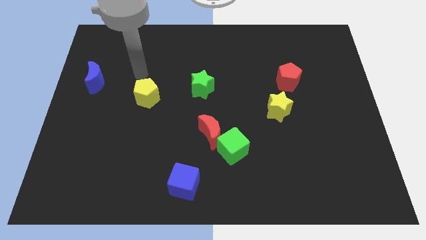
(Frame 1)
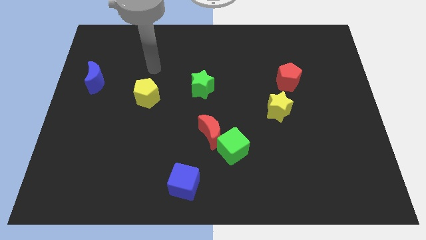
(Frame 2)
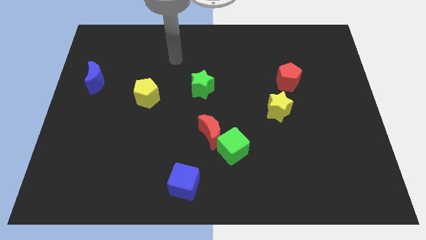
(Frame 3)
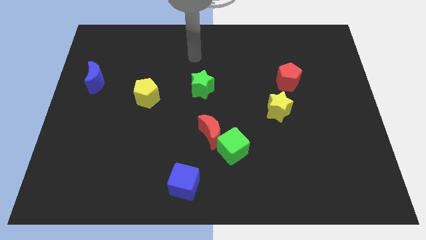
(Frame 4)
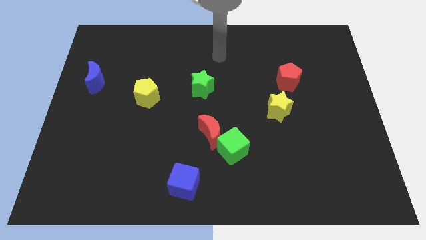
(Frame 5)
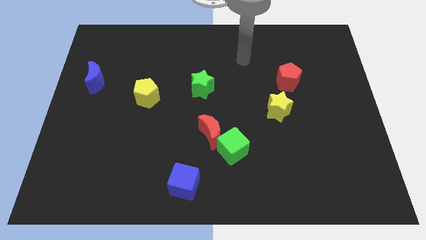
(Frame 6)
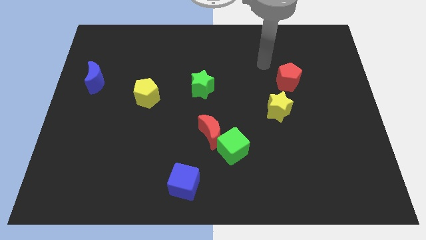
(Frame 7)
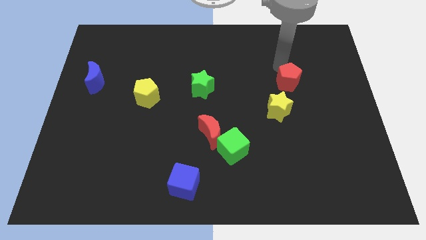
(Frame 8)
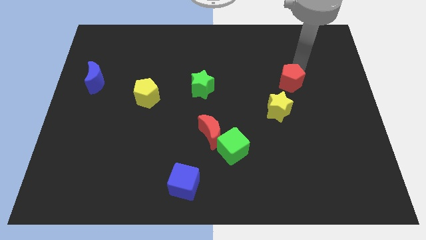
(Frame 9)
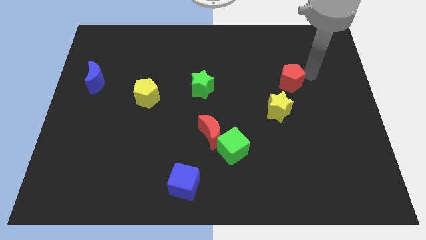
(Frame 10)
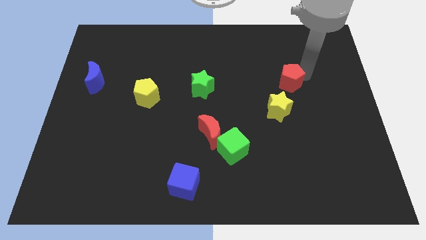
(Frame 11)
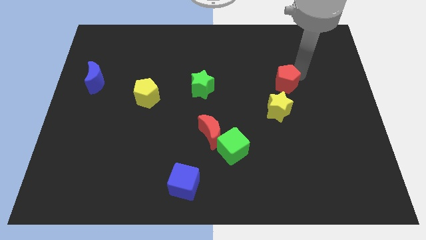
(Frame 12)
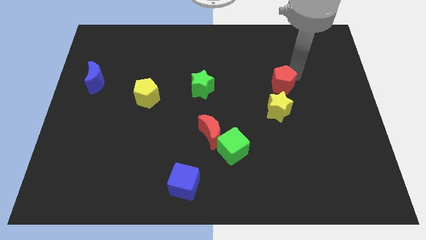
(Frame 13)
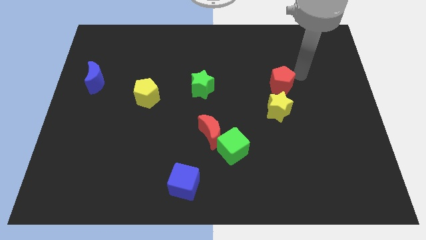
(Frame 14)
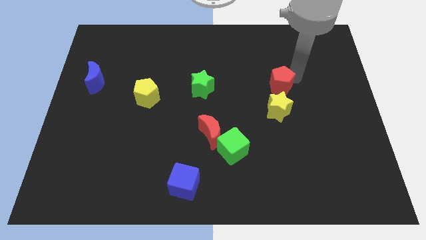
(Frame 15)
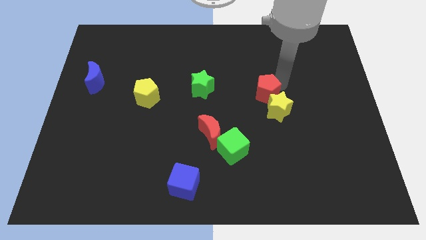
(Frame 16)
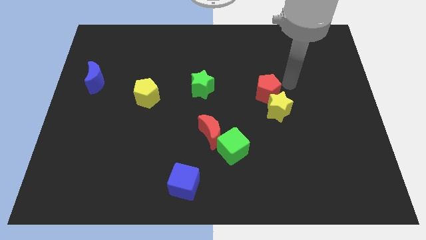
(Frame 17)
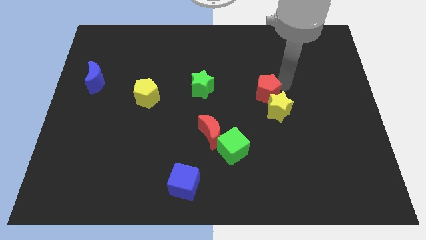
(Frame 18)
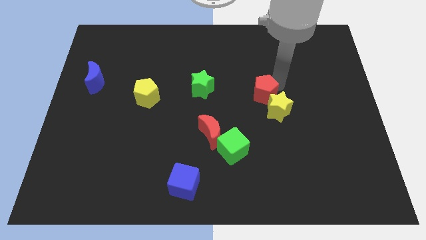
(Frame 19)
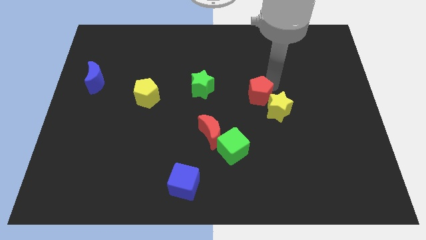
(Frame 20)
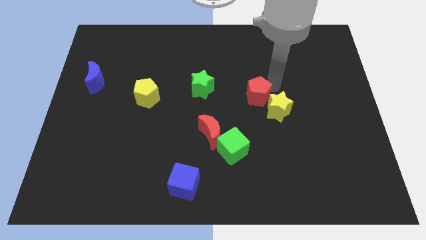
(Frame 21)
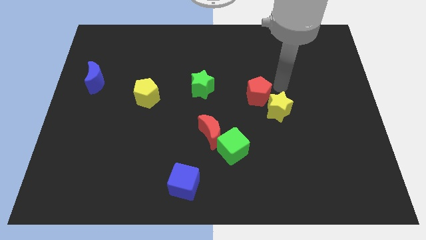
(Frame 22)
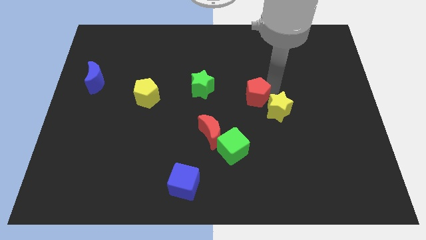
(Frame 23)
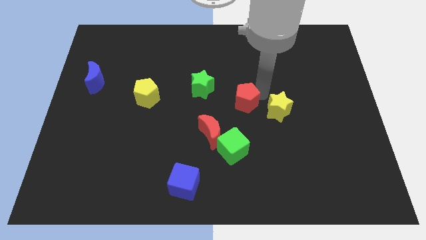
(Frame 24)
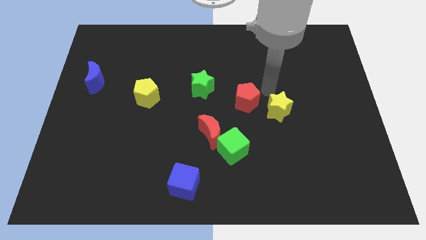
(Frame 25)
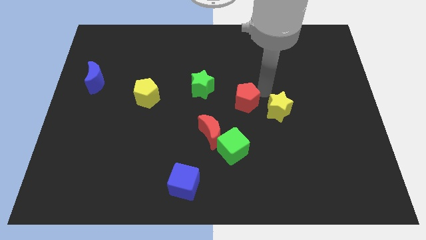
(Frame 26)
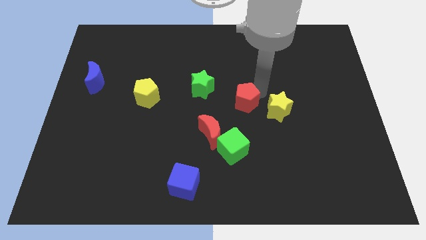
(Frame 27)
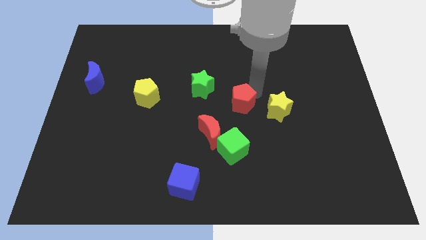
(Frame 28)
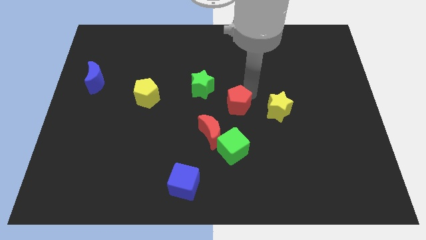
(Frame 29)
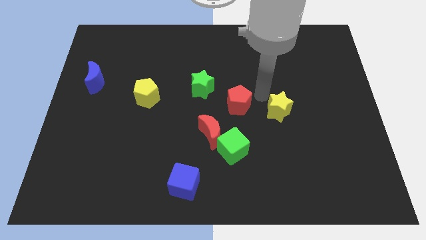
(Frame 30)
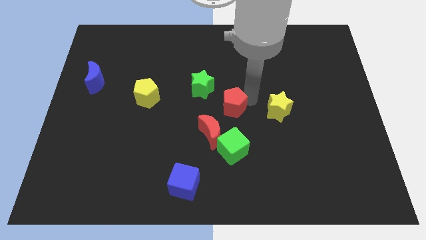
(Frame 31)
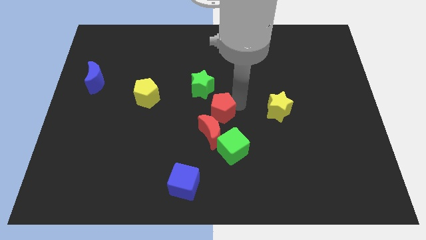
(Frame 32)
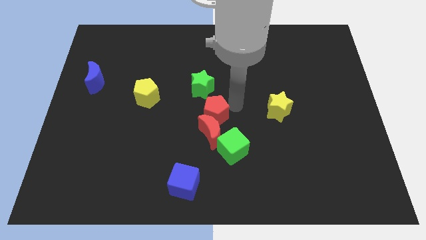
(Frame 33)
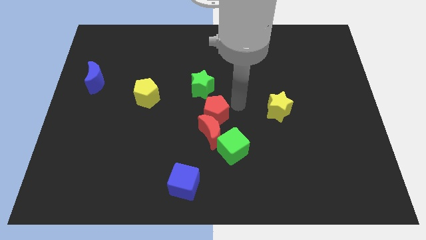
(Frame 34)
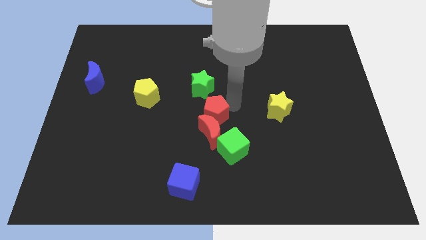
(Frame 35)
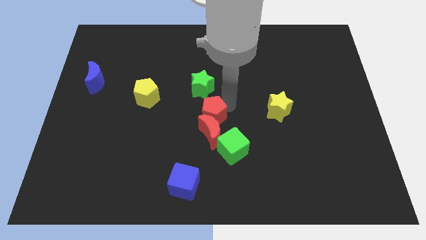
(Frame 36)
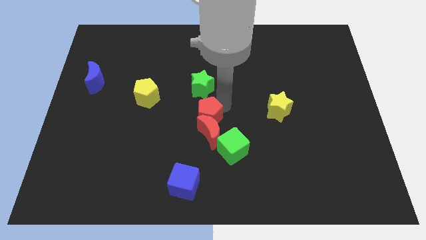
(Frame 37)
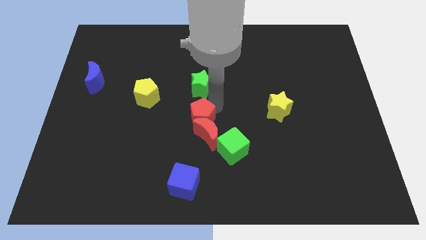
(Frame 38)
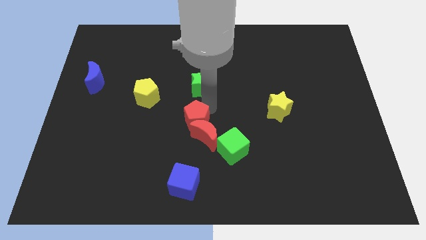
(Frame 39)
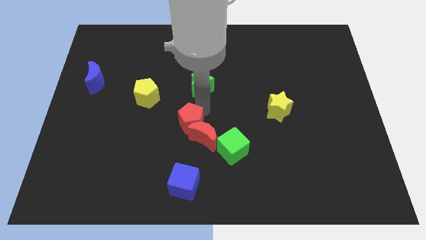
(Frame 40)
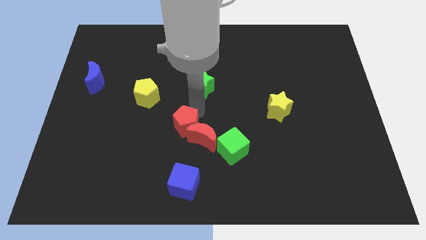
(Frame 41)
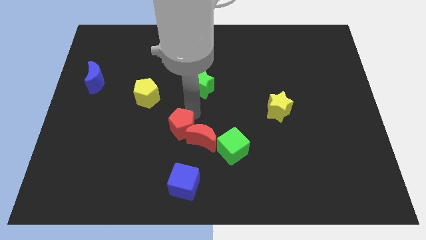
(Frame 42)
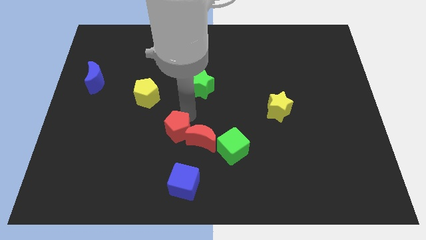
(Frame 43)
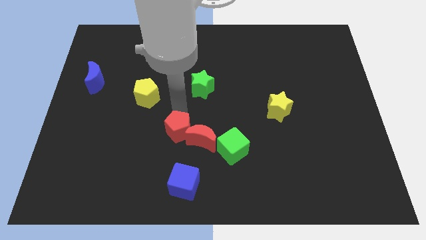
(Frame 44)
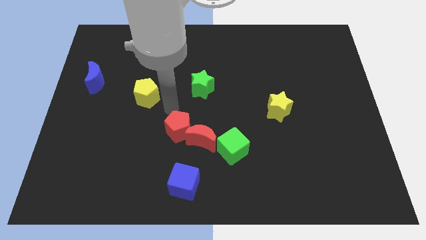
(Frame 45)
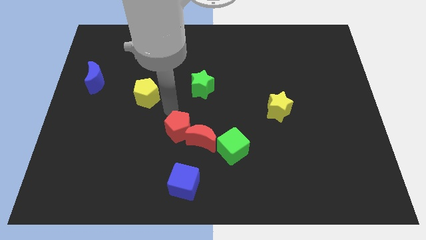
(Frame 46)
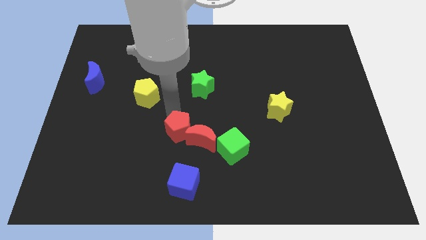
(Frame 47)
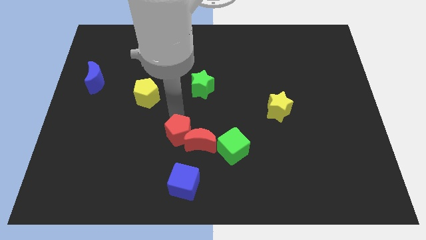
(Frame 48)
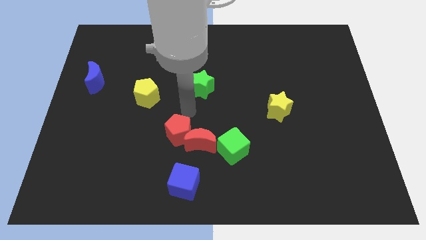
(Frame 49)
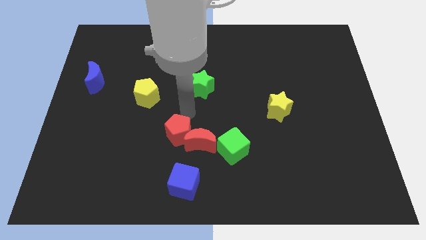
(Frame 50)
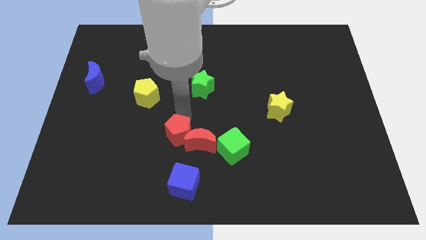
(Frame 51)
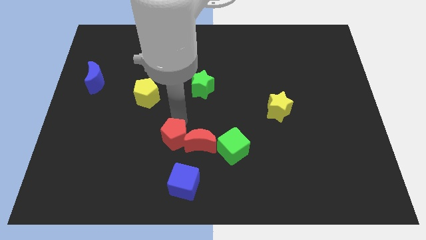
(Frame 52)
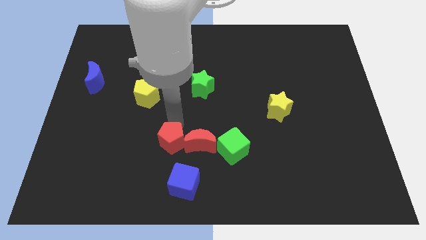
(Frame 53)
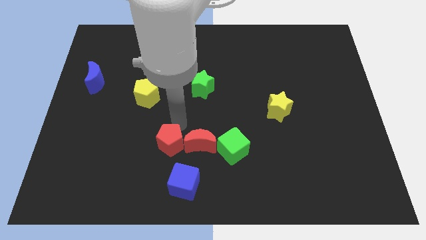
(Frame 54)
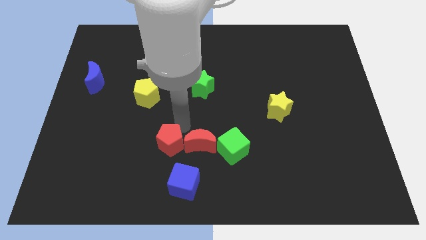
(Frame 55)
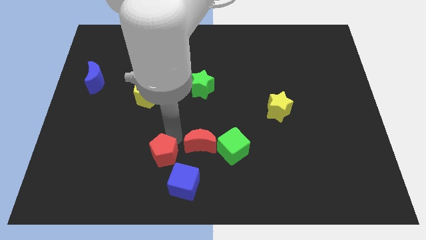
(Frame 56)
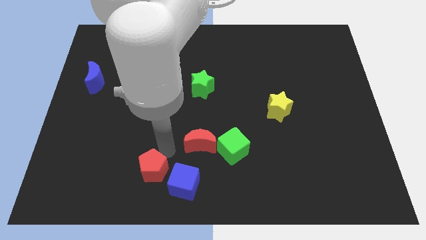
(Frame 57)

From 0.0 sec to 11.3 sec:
slide the red pentagon just left of the blue cube

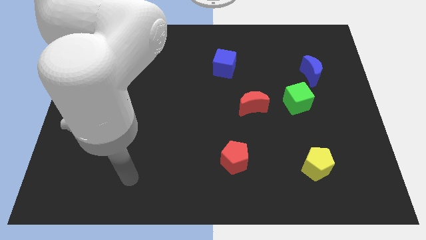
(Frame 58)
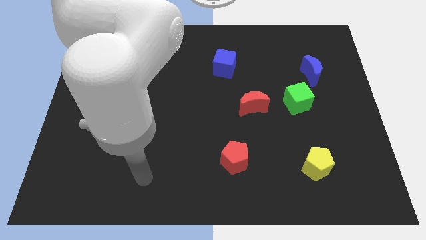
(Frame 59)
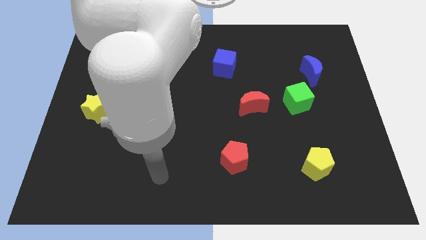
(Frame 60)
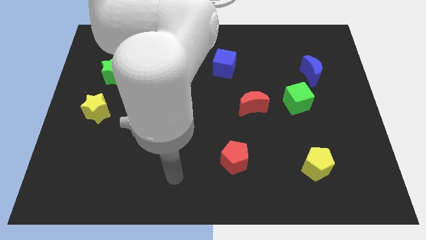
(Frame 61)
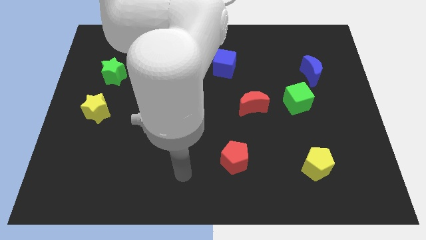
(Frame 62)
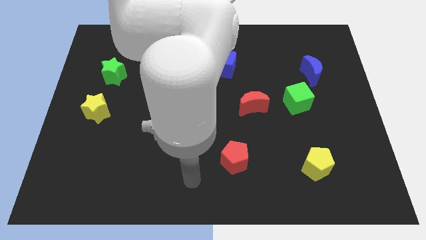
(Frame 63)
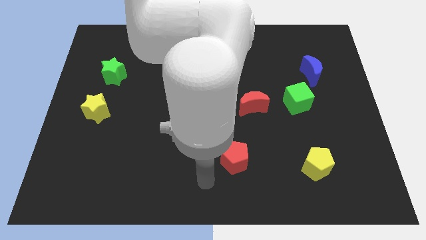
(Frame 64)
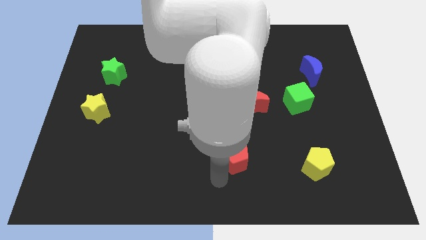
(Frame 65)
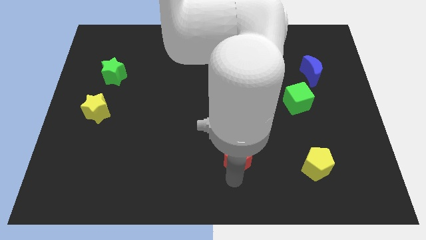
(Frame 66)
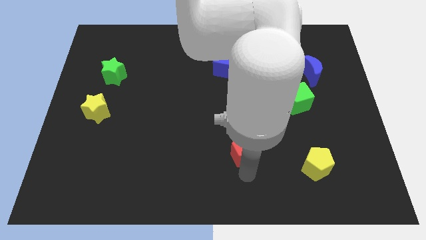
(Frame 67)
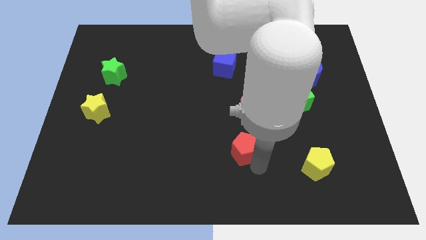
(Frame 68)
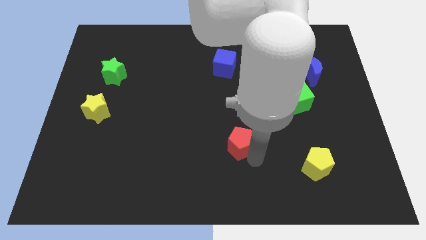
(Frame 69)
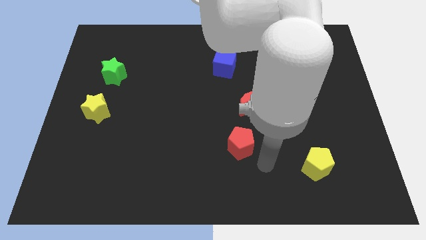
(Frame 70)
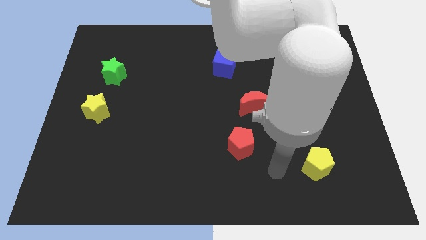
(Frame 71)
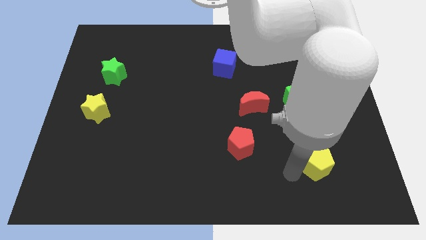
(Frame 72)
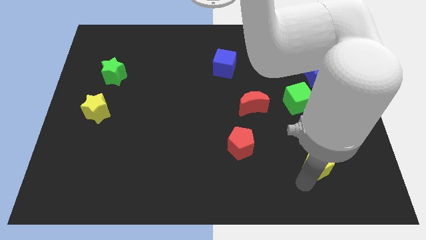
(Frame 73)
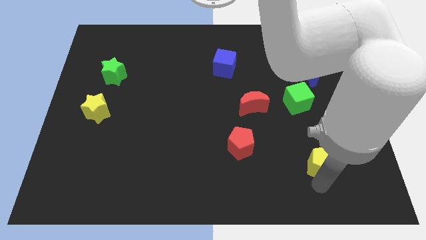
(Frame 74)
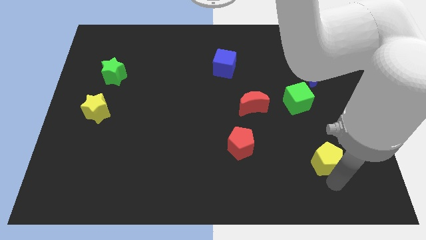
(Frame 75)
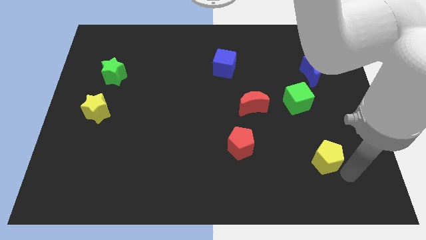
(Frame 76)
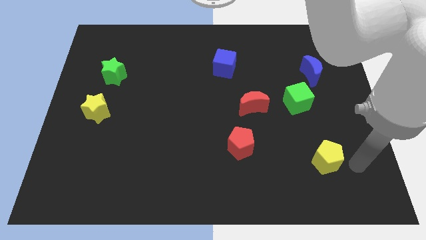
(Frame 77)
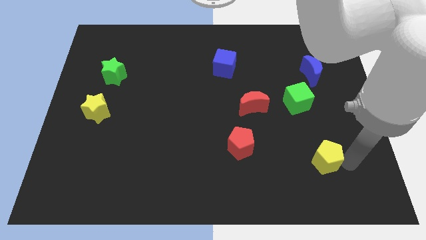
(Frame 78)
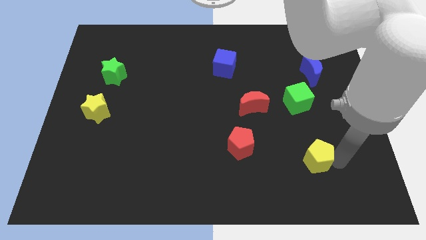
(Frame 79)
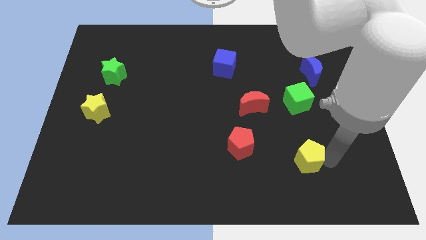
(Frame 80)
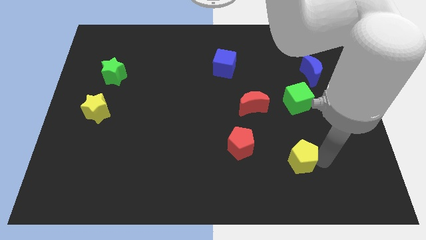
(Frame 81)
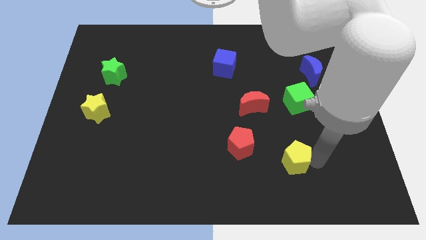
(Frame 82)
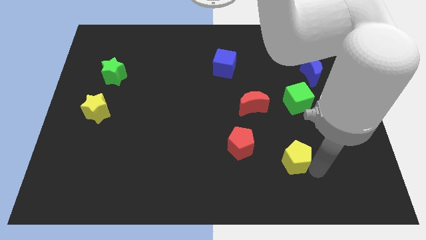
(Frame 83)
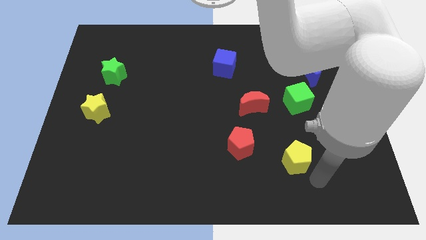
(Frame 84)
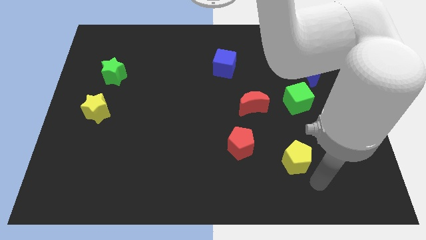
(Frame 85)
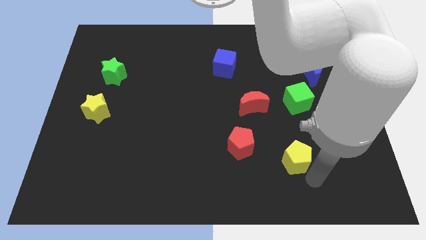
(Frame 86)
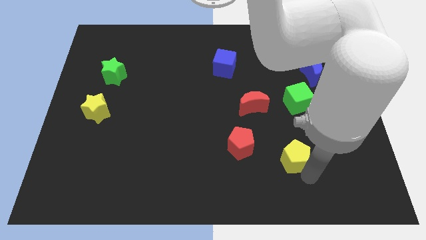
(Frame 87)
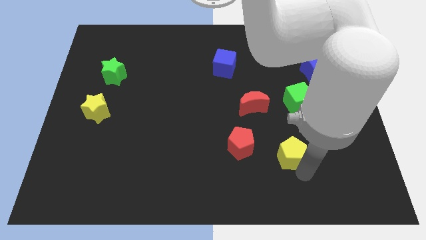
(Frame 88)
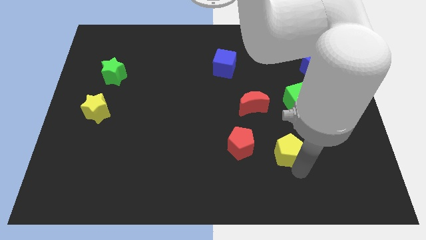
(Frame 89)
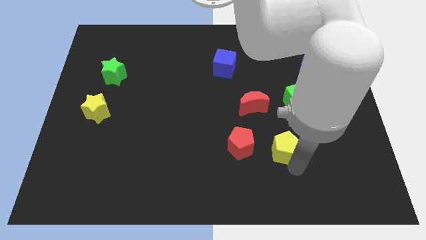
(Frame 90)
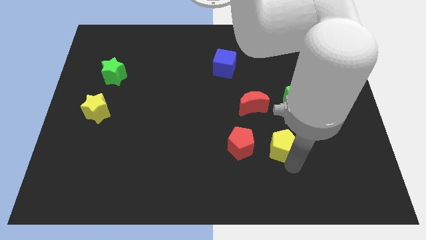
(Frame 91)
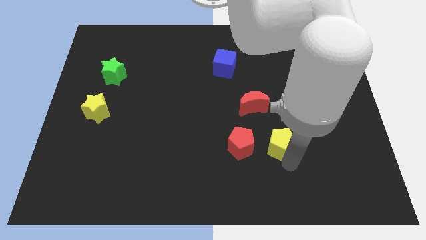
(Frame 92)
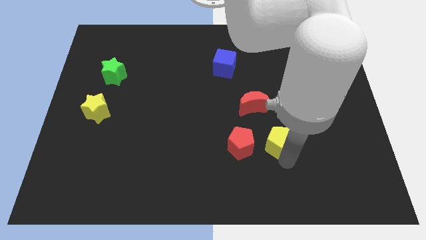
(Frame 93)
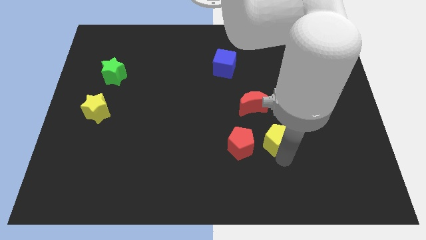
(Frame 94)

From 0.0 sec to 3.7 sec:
move the yellow pentagon to the top right side of the red pentagon
